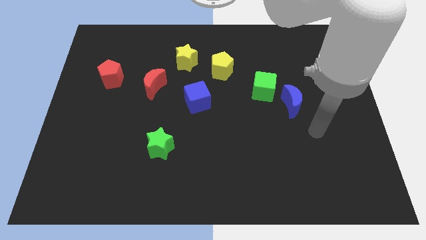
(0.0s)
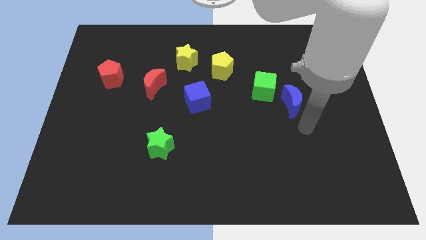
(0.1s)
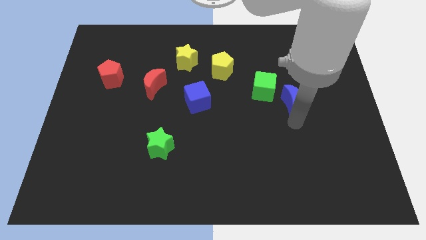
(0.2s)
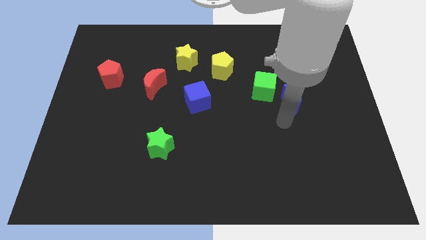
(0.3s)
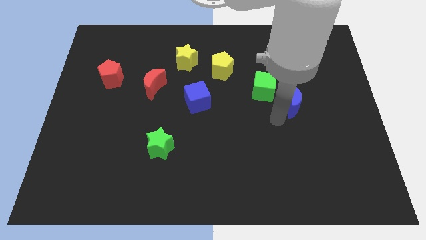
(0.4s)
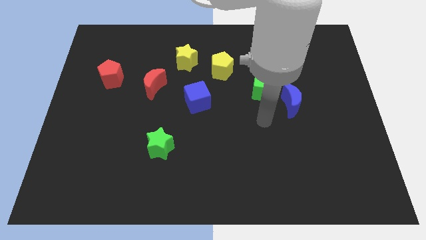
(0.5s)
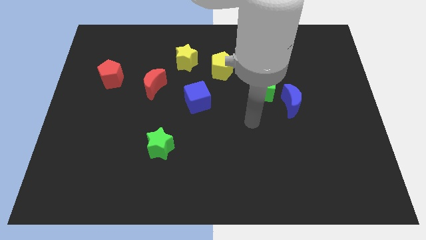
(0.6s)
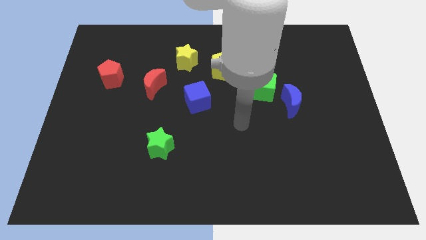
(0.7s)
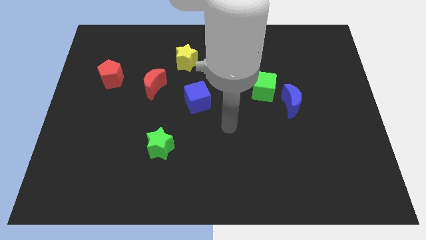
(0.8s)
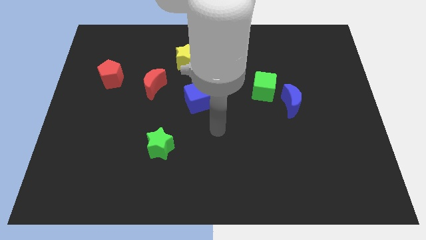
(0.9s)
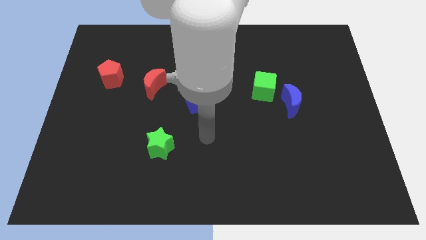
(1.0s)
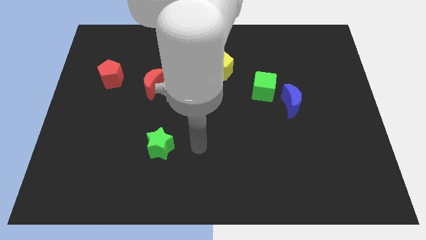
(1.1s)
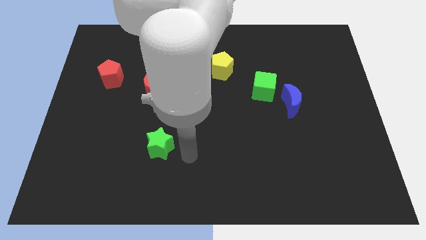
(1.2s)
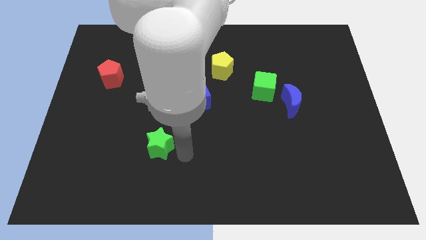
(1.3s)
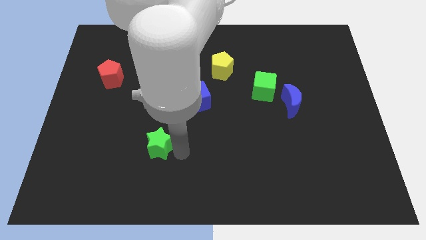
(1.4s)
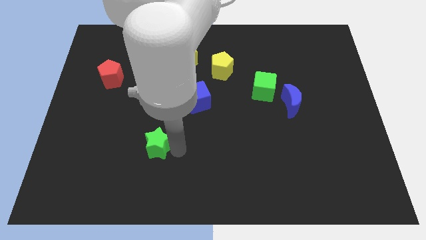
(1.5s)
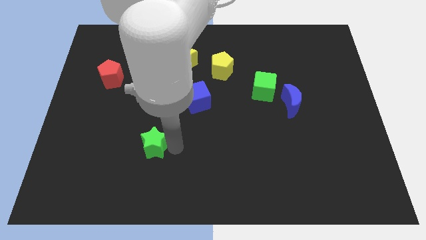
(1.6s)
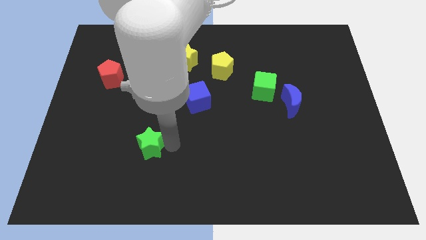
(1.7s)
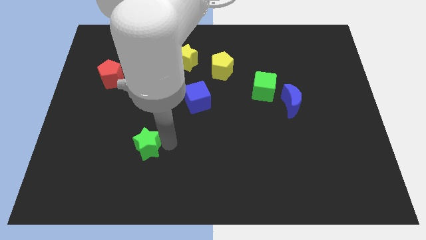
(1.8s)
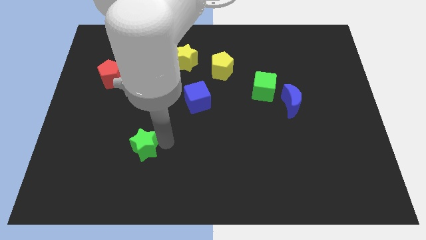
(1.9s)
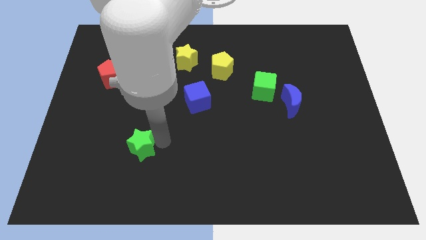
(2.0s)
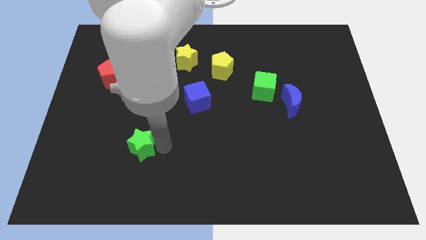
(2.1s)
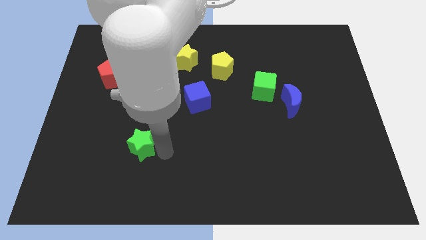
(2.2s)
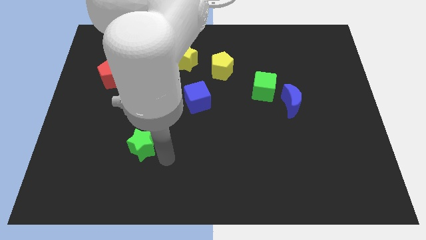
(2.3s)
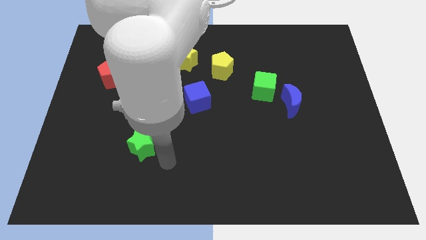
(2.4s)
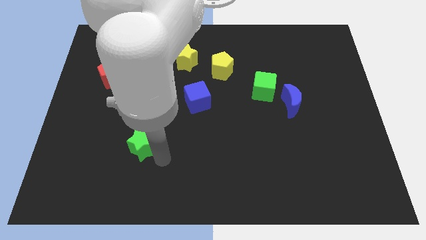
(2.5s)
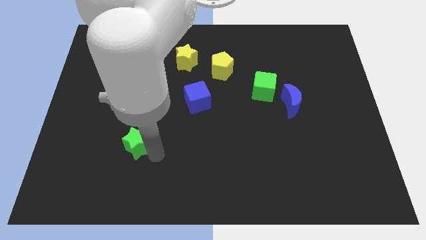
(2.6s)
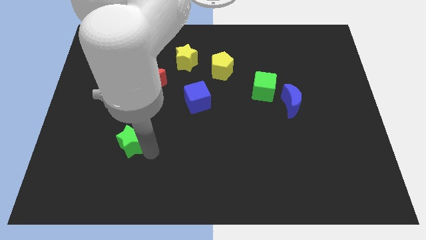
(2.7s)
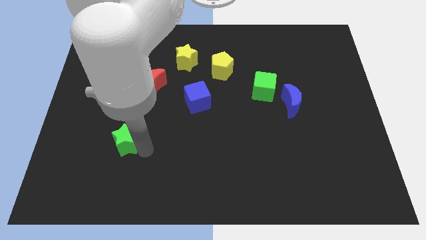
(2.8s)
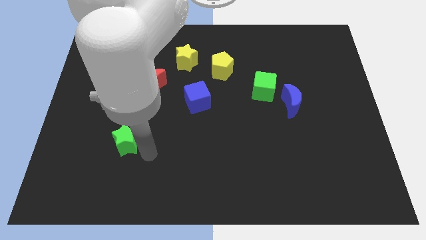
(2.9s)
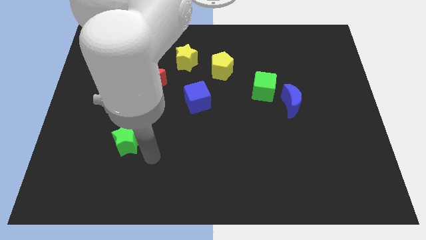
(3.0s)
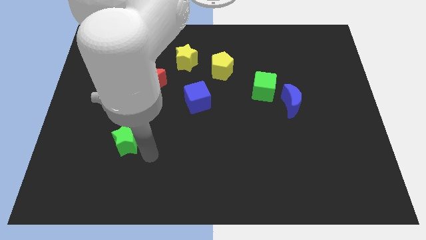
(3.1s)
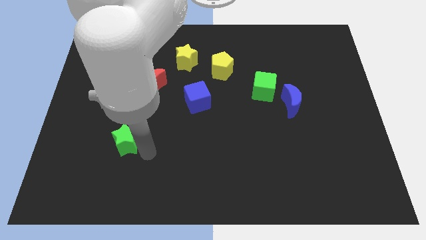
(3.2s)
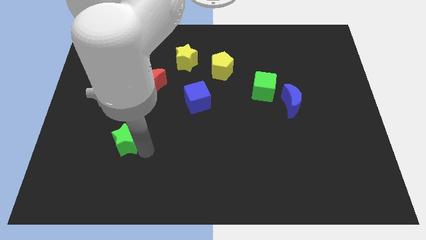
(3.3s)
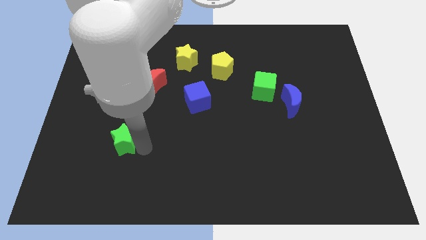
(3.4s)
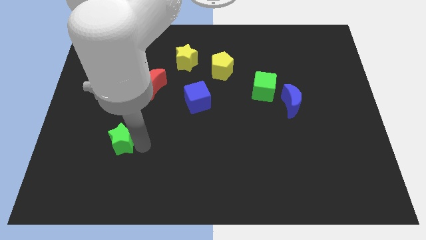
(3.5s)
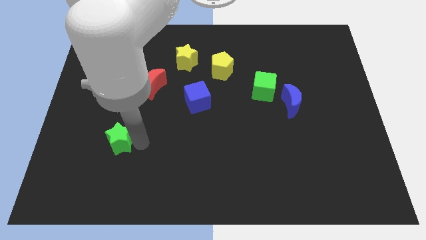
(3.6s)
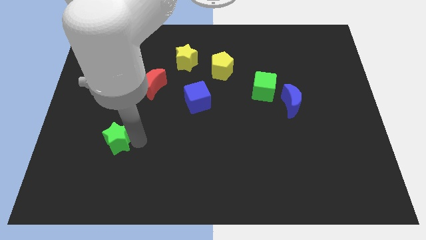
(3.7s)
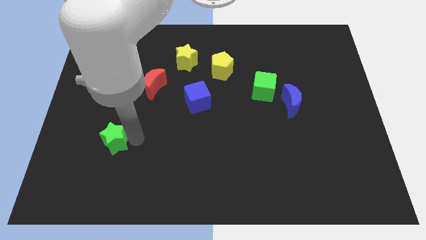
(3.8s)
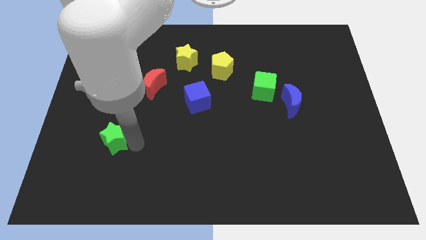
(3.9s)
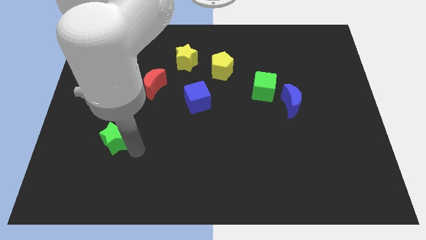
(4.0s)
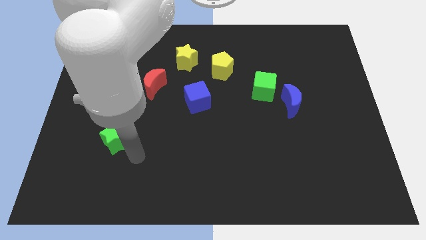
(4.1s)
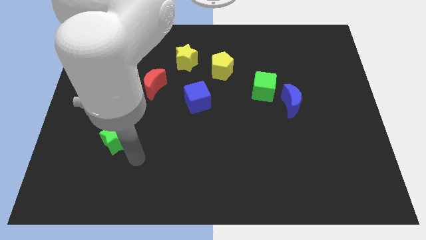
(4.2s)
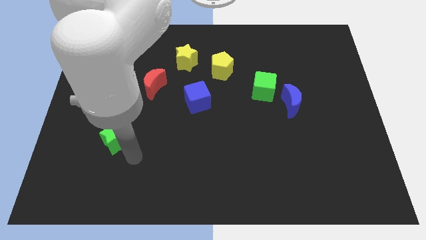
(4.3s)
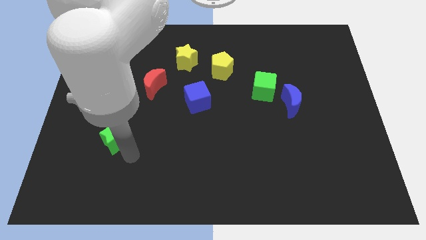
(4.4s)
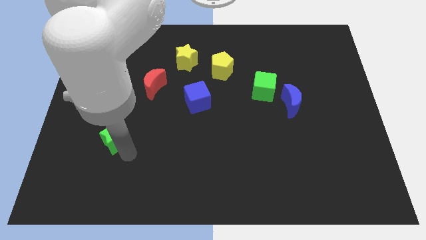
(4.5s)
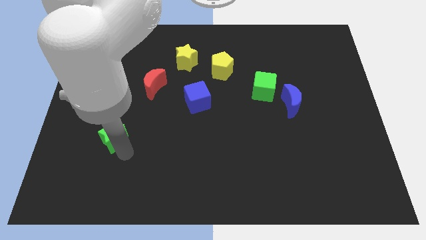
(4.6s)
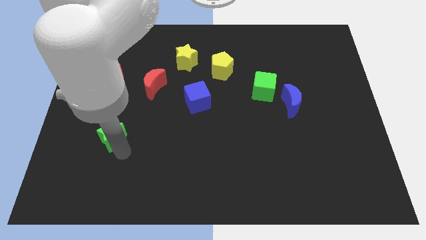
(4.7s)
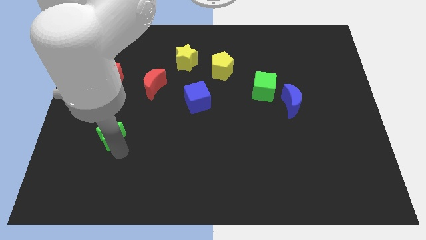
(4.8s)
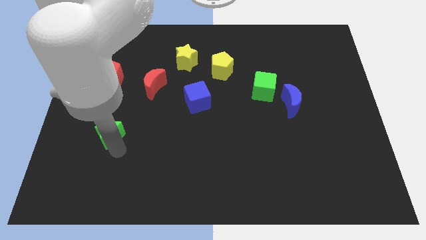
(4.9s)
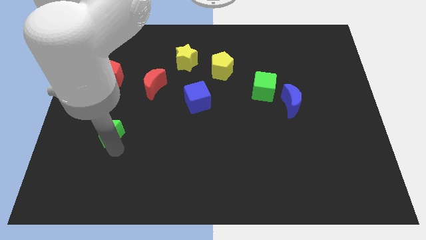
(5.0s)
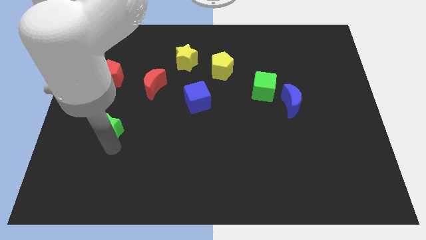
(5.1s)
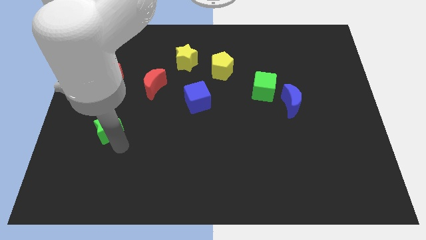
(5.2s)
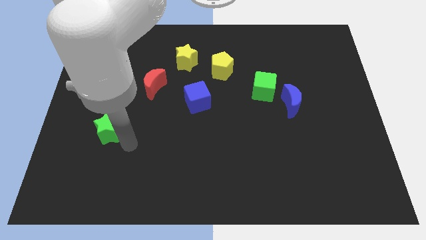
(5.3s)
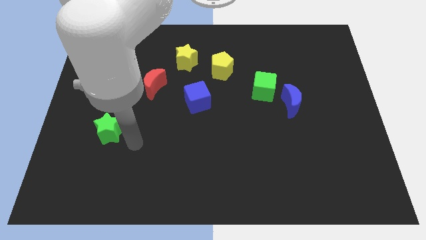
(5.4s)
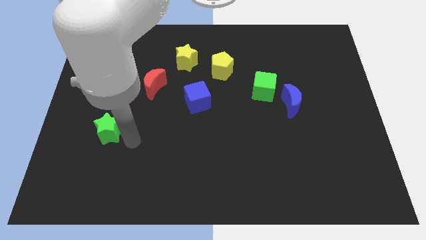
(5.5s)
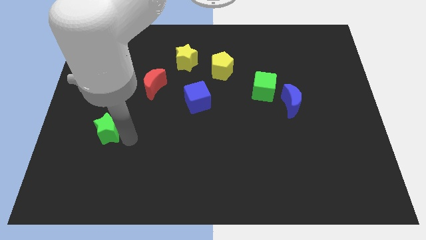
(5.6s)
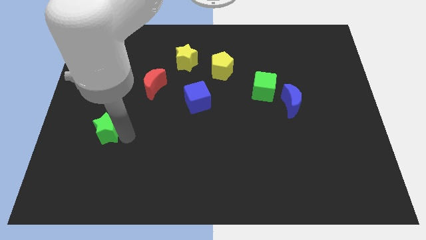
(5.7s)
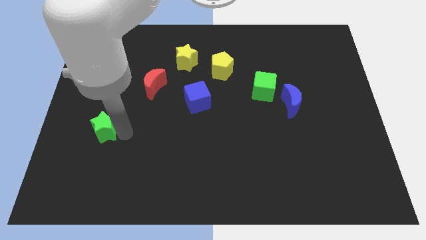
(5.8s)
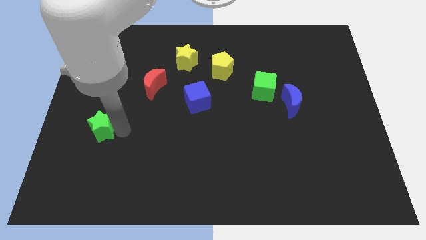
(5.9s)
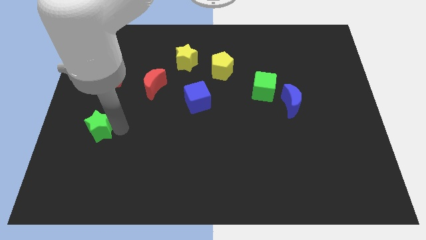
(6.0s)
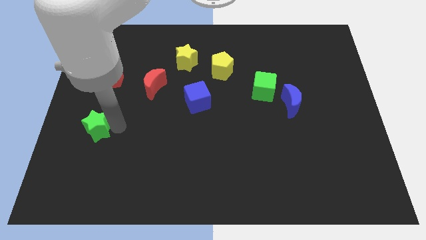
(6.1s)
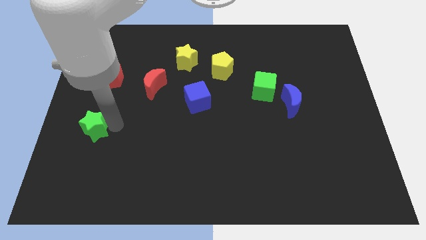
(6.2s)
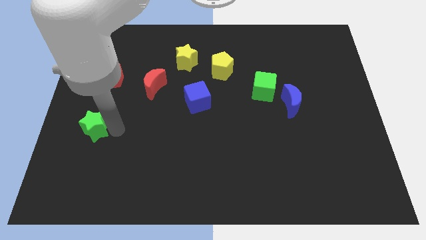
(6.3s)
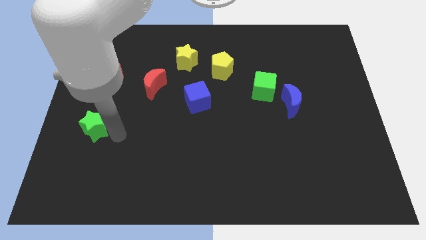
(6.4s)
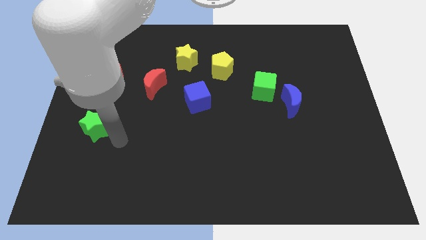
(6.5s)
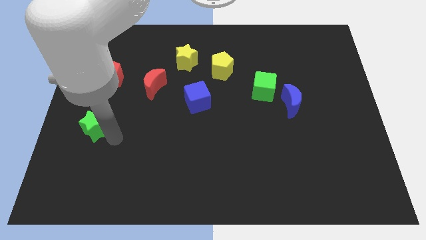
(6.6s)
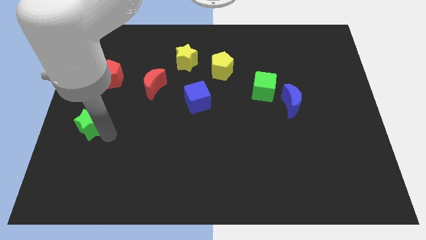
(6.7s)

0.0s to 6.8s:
slide the green star to the left side of the board
